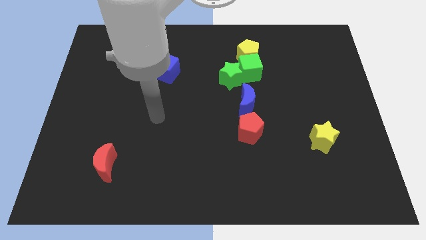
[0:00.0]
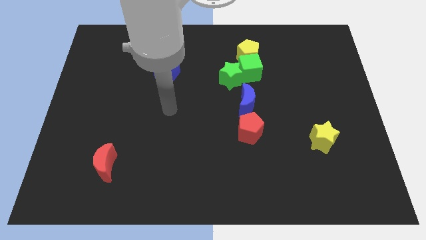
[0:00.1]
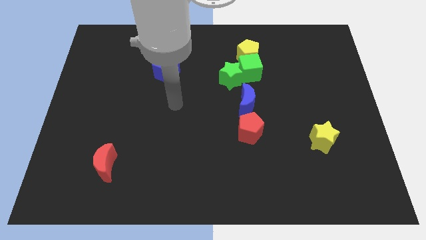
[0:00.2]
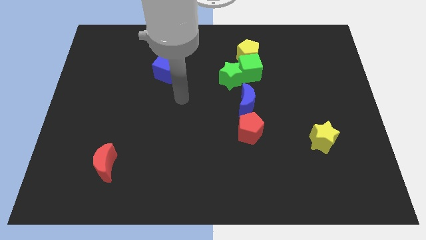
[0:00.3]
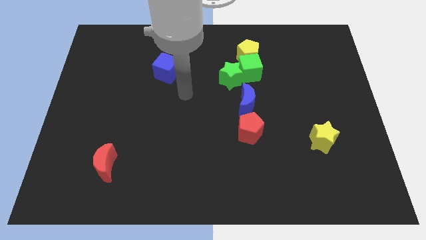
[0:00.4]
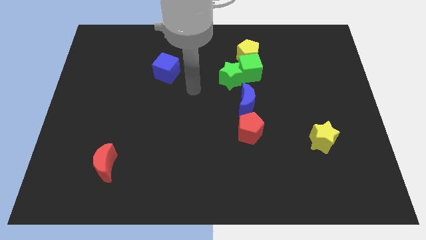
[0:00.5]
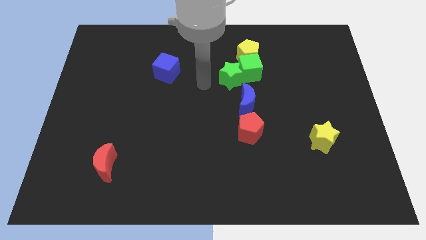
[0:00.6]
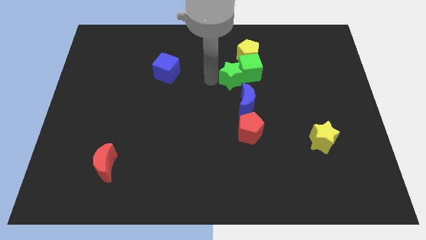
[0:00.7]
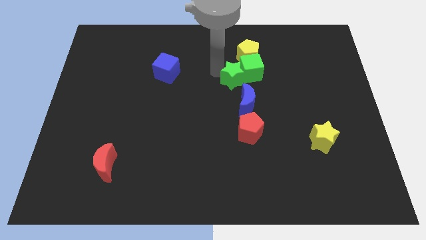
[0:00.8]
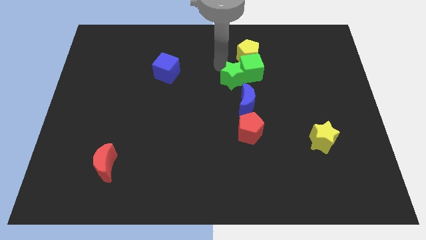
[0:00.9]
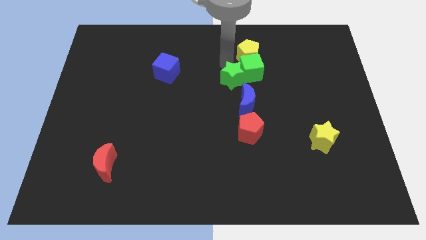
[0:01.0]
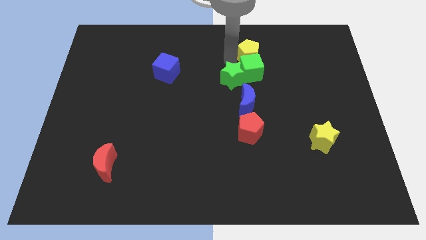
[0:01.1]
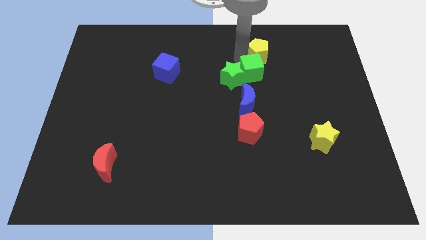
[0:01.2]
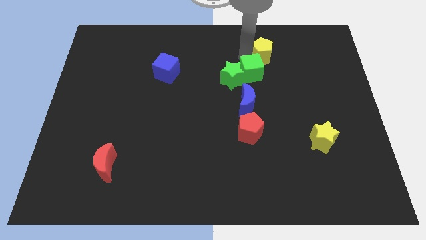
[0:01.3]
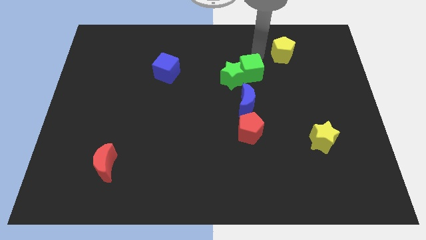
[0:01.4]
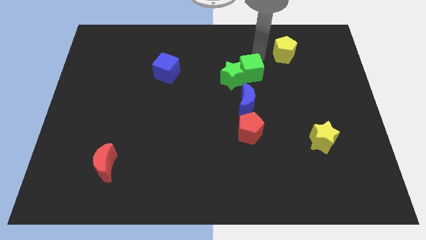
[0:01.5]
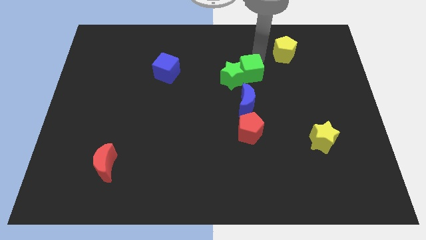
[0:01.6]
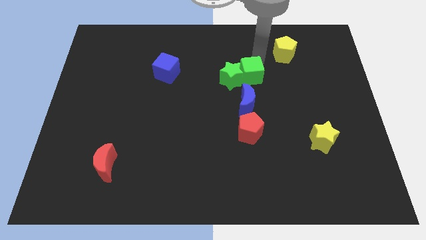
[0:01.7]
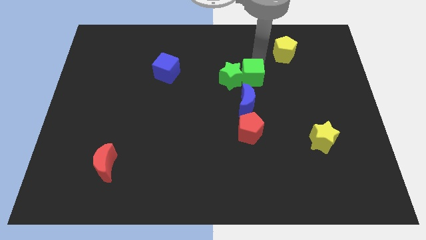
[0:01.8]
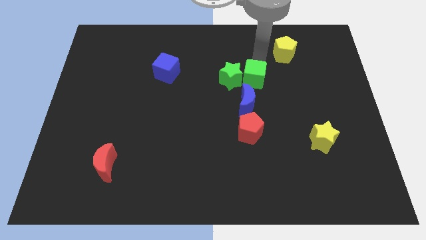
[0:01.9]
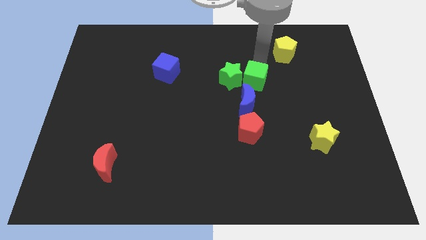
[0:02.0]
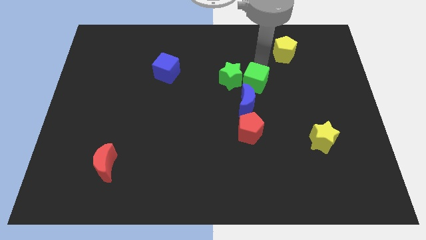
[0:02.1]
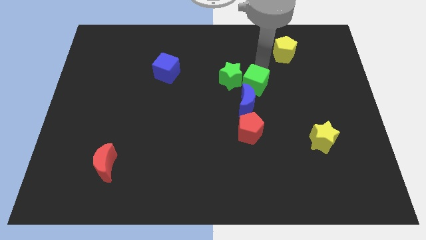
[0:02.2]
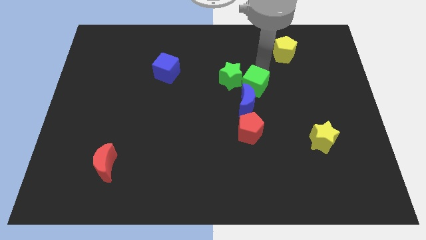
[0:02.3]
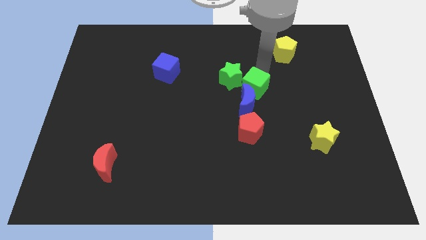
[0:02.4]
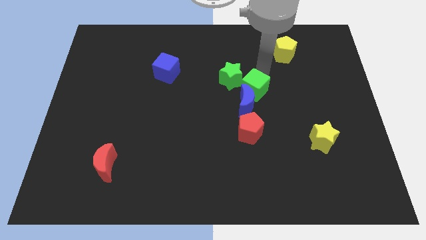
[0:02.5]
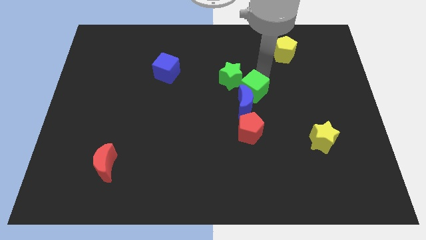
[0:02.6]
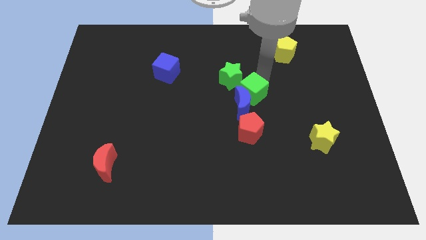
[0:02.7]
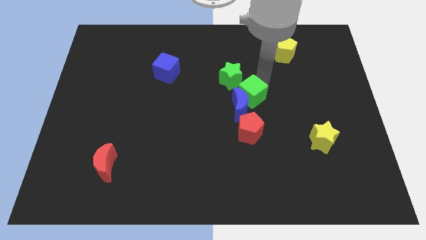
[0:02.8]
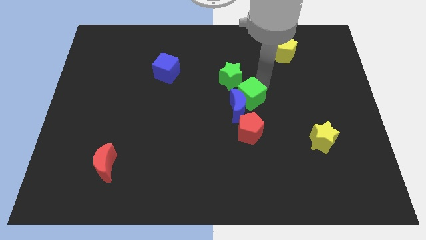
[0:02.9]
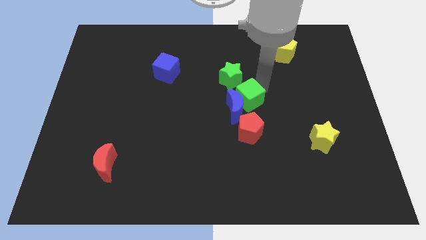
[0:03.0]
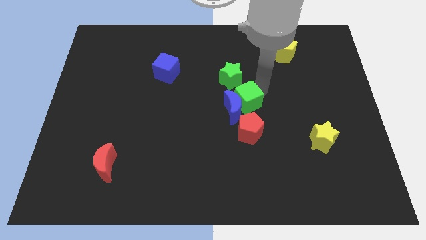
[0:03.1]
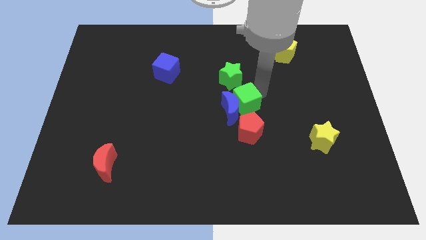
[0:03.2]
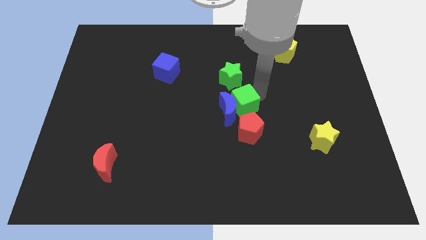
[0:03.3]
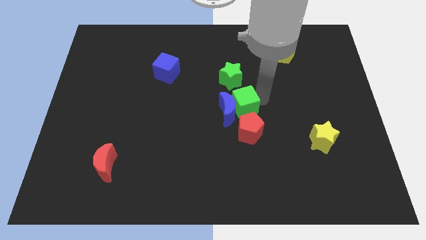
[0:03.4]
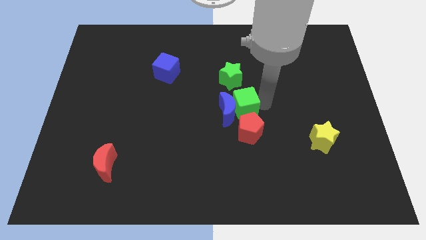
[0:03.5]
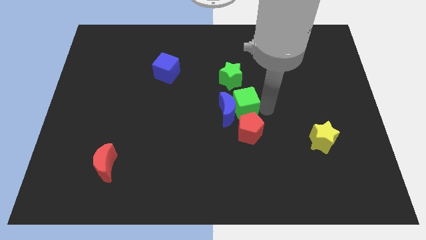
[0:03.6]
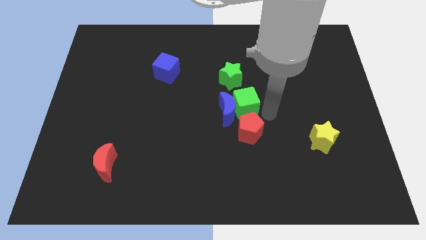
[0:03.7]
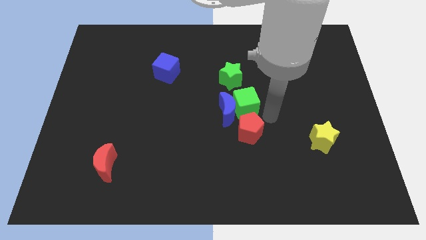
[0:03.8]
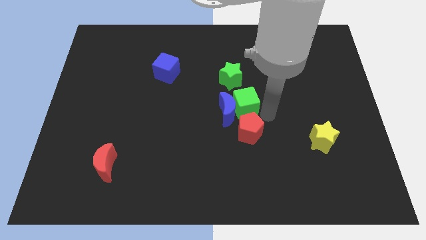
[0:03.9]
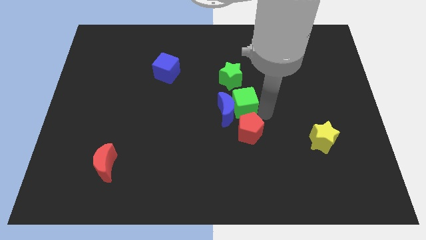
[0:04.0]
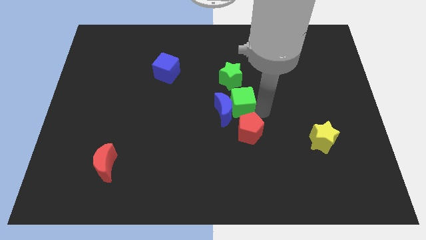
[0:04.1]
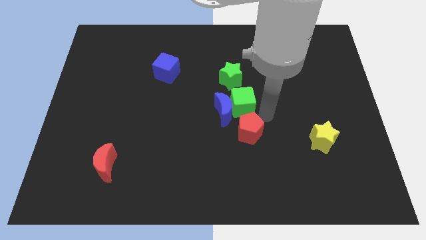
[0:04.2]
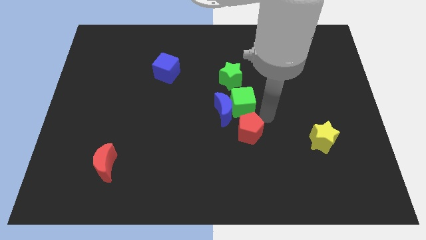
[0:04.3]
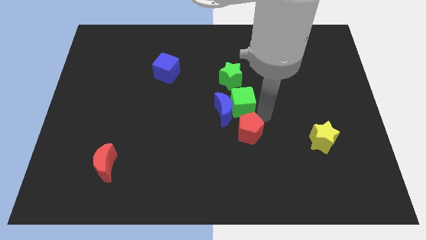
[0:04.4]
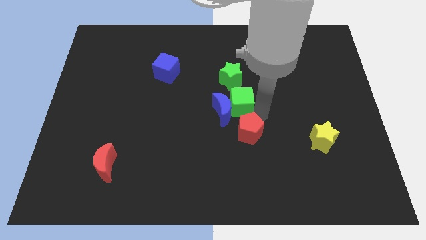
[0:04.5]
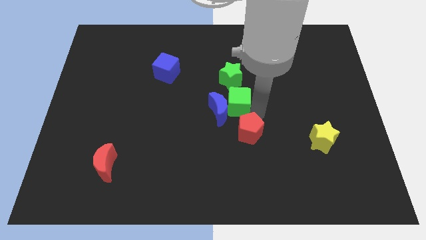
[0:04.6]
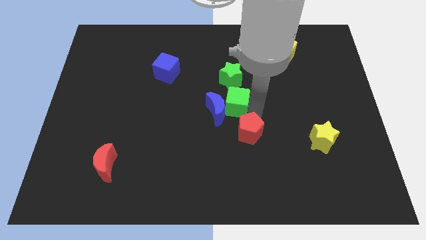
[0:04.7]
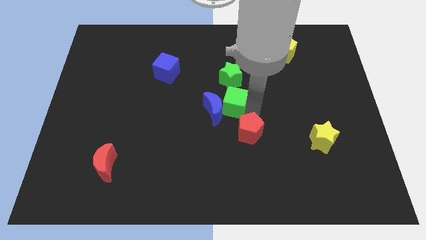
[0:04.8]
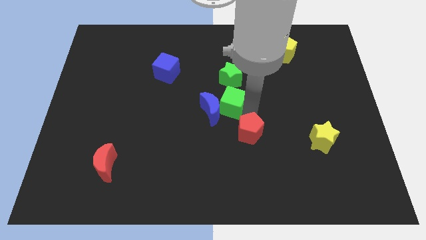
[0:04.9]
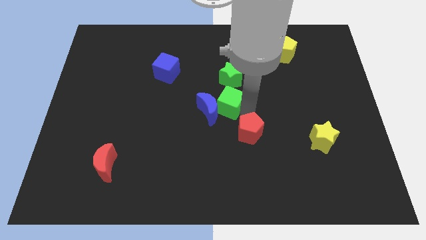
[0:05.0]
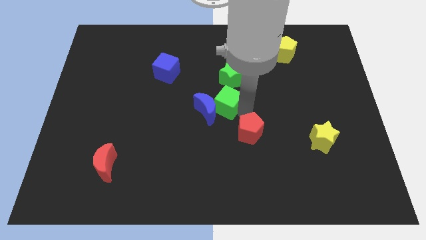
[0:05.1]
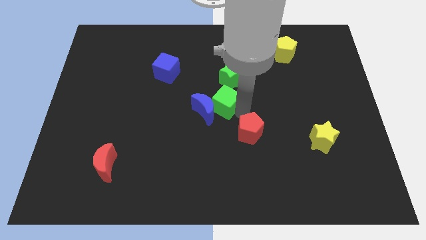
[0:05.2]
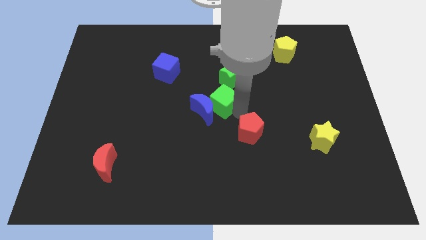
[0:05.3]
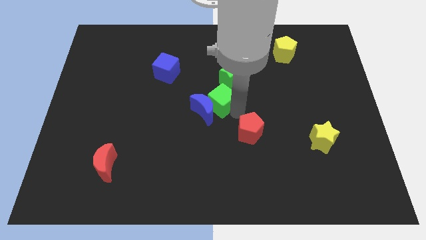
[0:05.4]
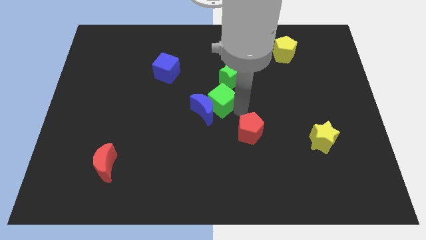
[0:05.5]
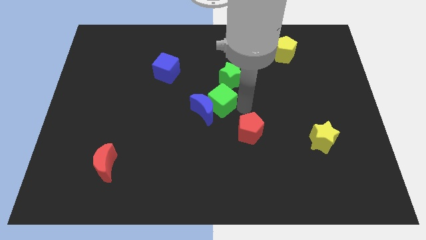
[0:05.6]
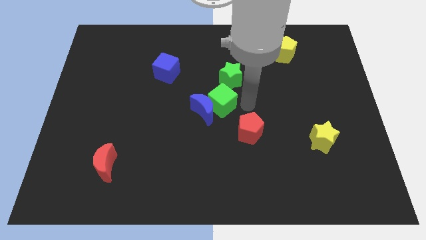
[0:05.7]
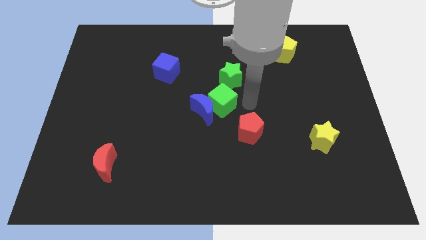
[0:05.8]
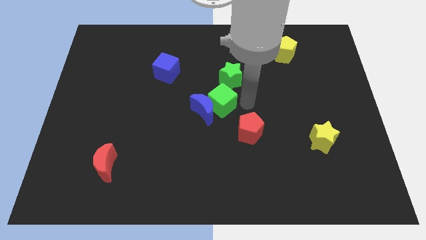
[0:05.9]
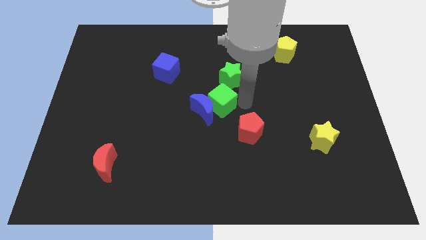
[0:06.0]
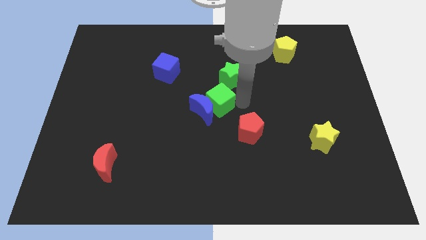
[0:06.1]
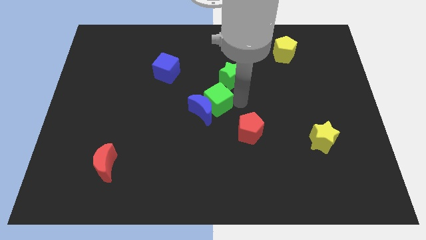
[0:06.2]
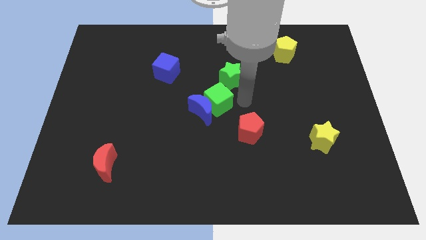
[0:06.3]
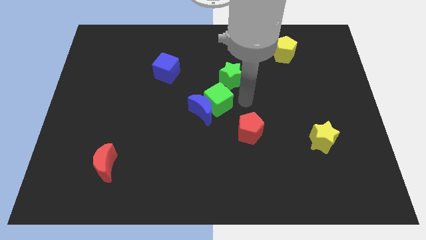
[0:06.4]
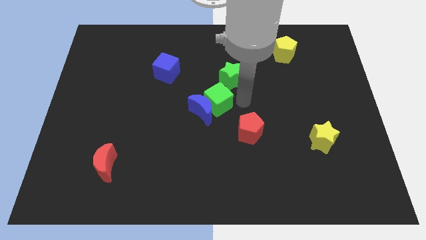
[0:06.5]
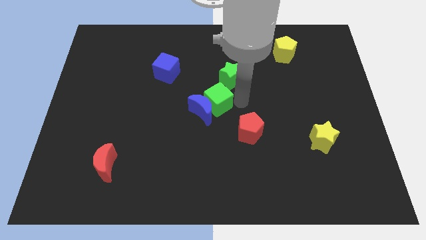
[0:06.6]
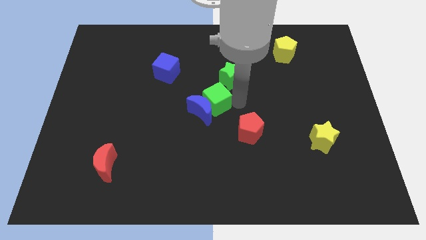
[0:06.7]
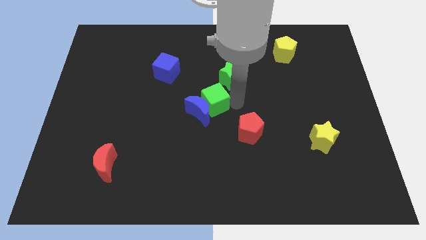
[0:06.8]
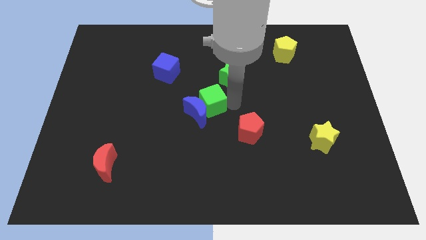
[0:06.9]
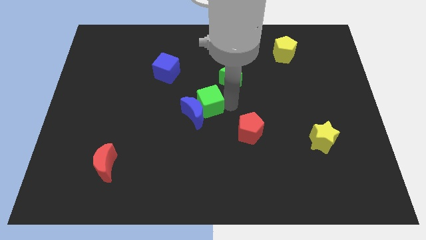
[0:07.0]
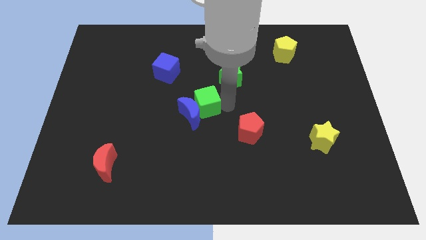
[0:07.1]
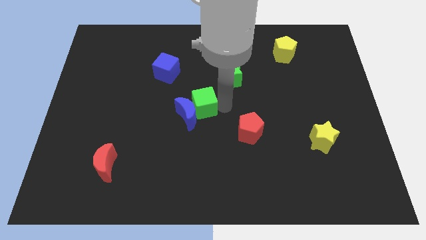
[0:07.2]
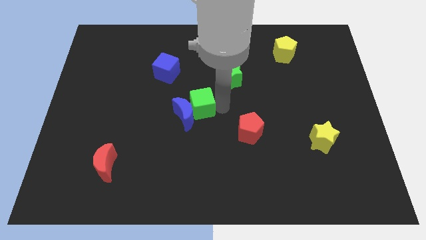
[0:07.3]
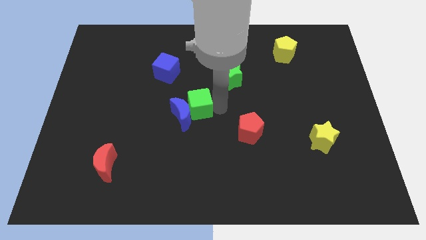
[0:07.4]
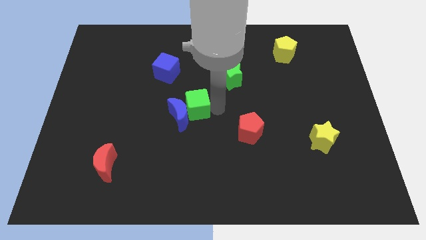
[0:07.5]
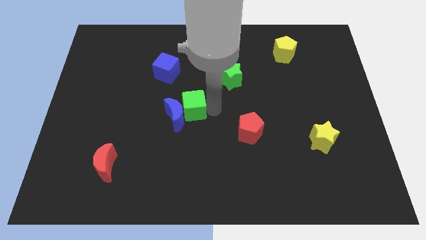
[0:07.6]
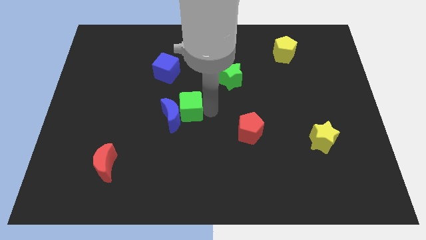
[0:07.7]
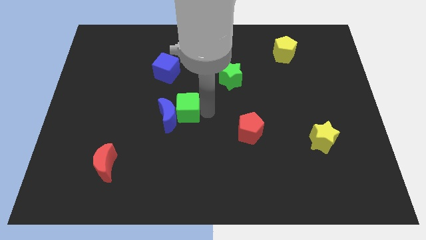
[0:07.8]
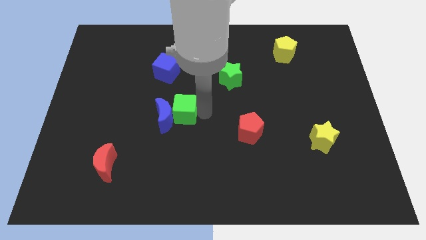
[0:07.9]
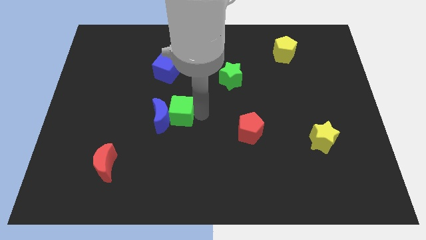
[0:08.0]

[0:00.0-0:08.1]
push the green cube below the blue cube
